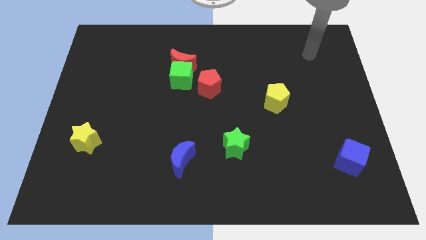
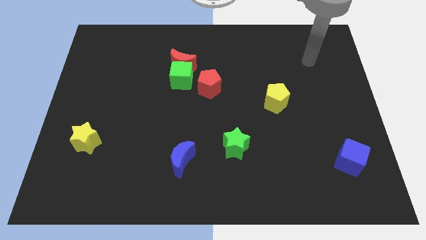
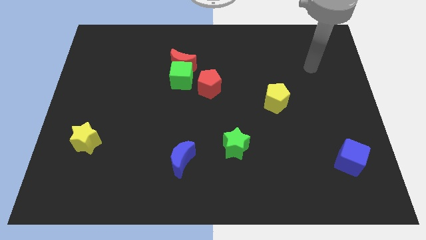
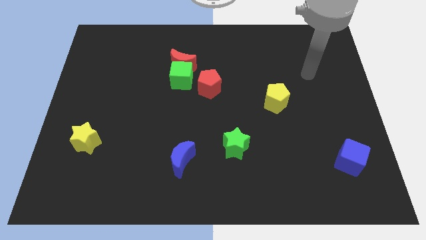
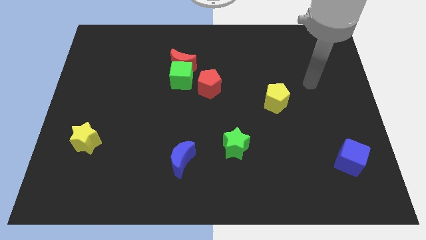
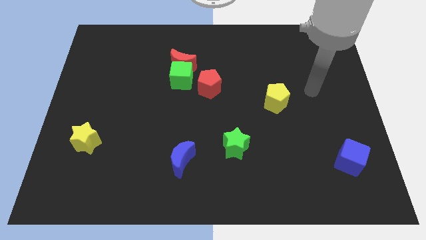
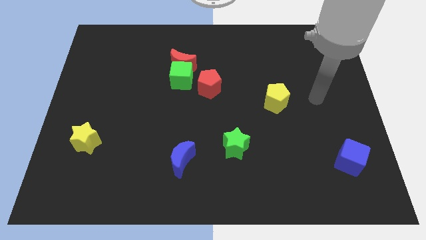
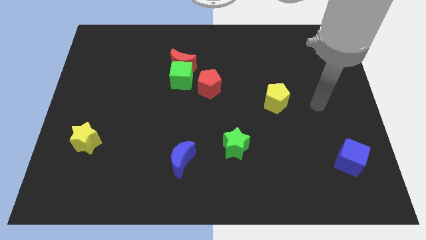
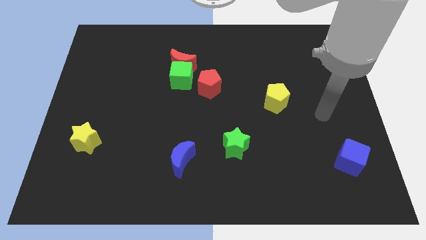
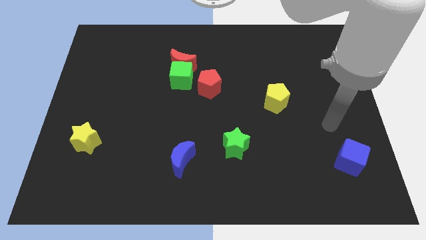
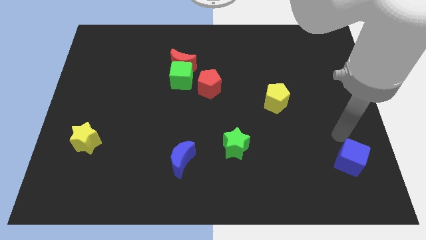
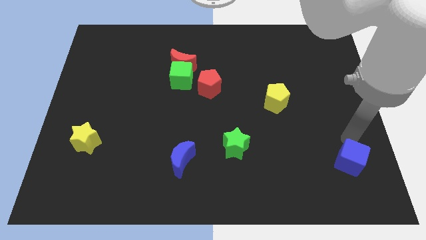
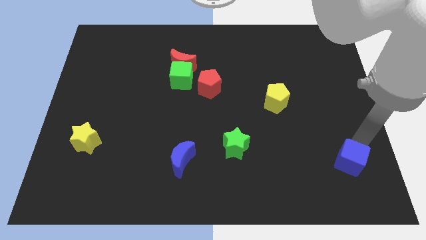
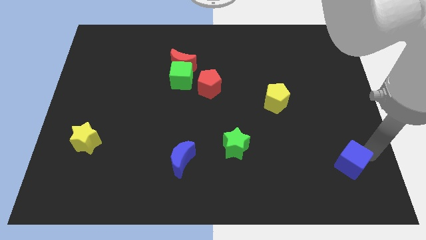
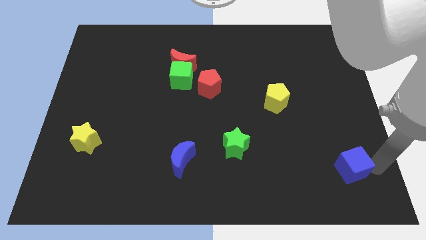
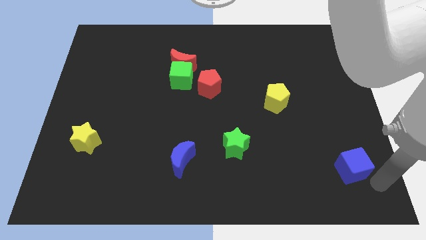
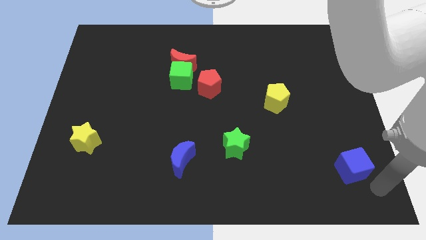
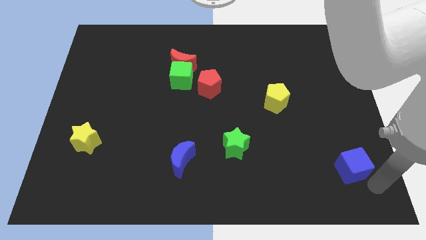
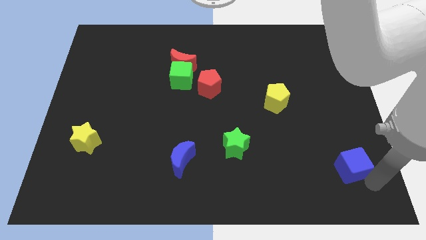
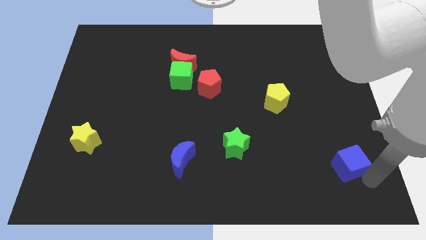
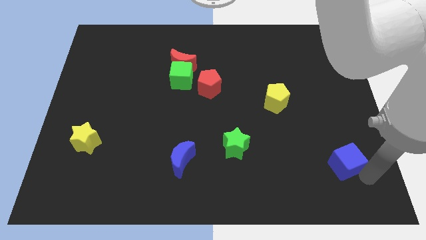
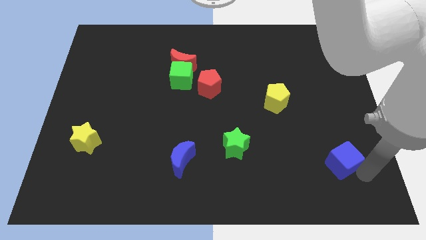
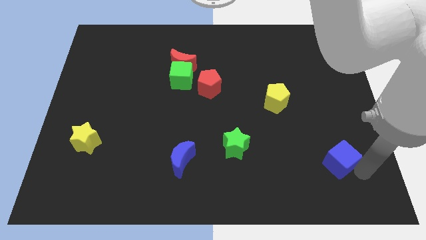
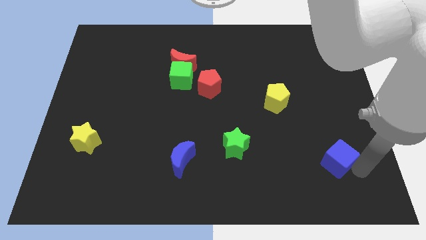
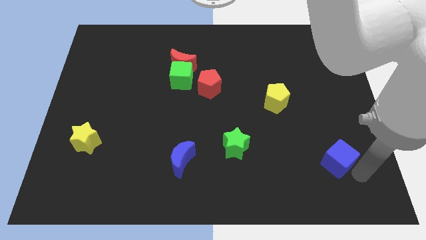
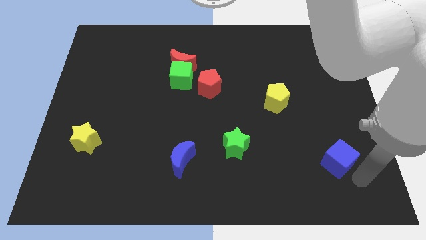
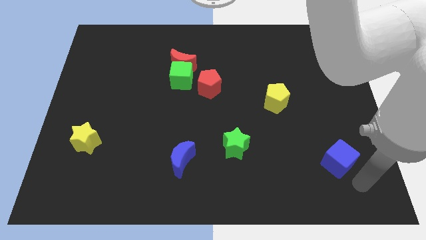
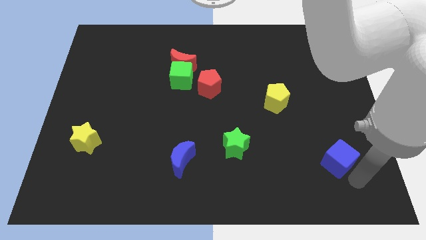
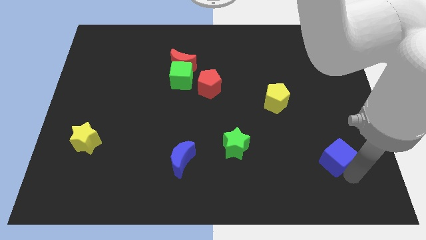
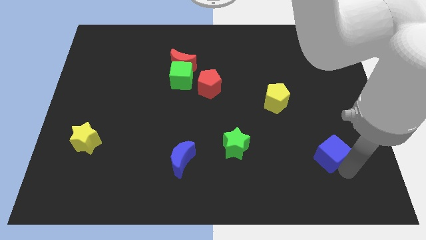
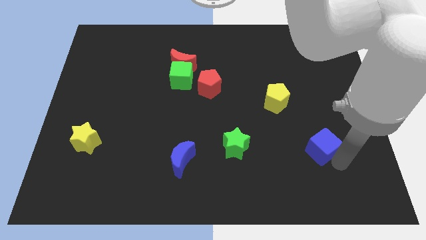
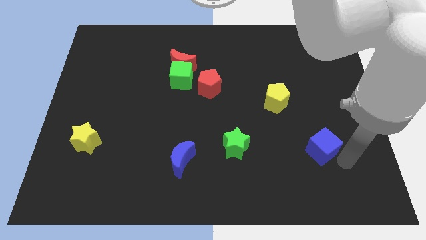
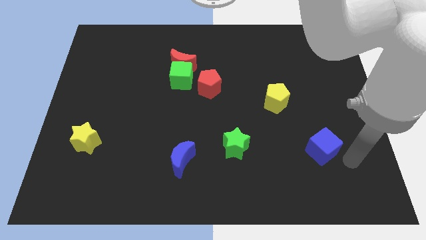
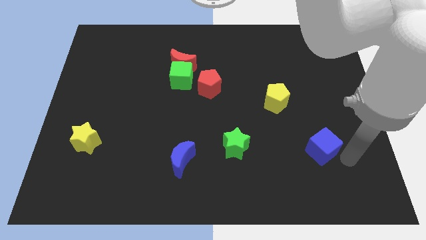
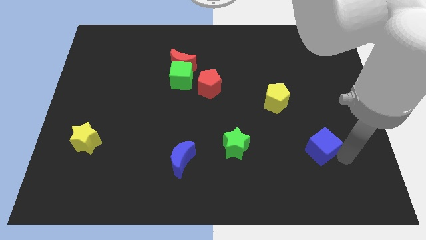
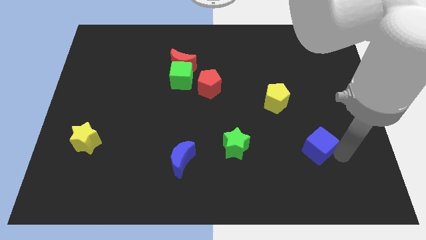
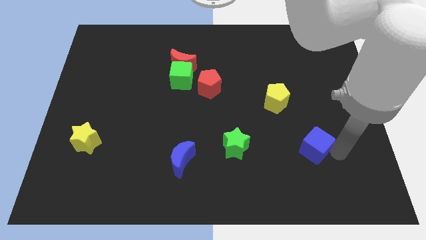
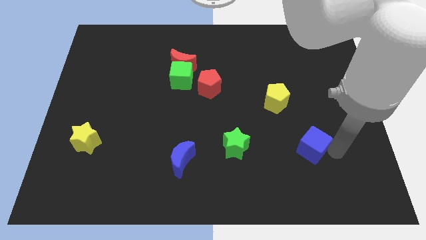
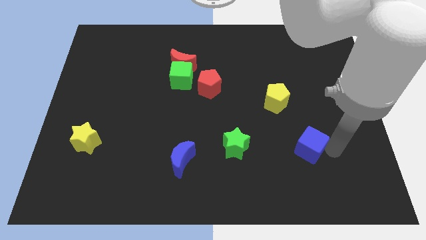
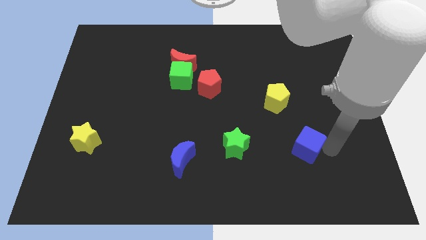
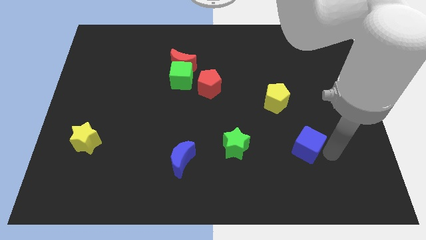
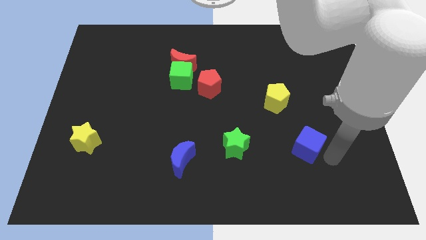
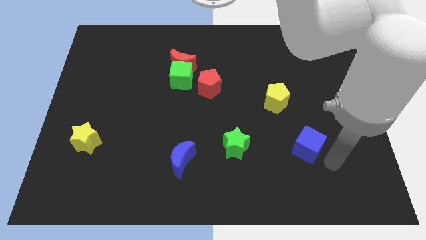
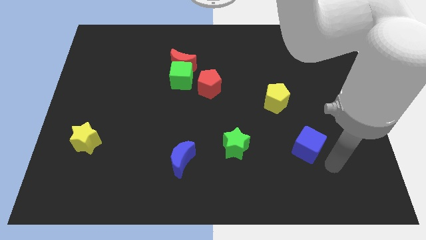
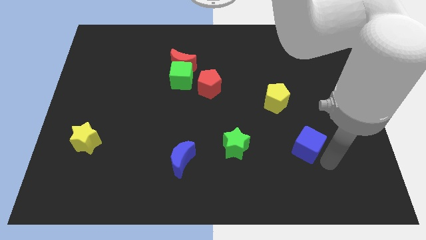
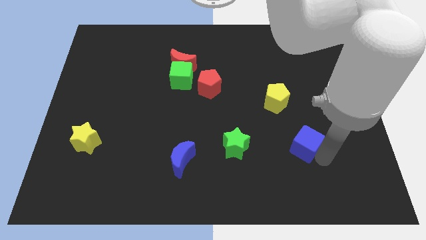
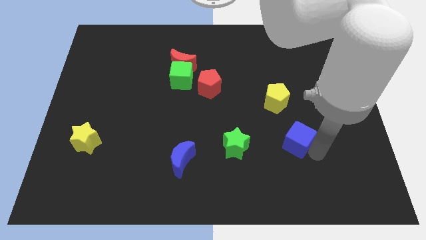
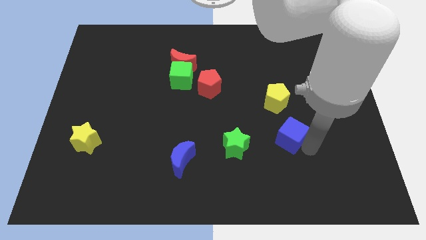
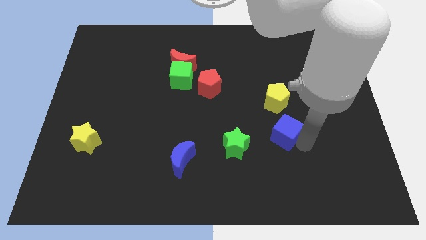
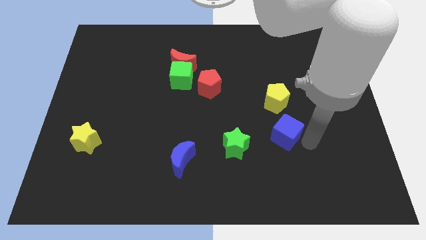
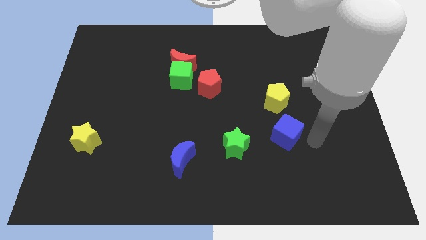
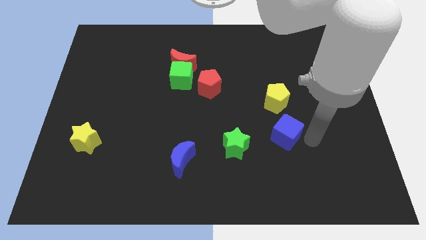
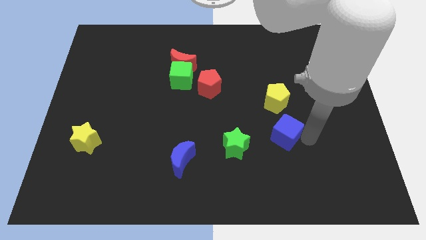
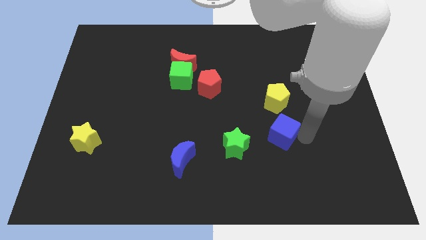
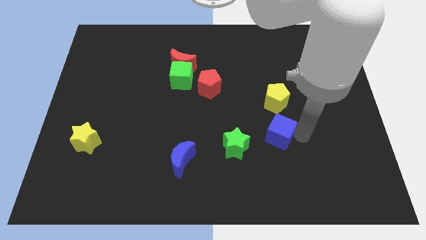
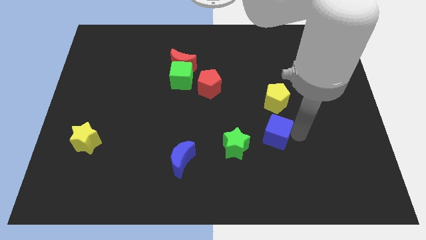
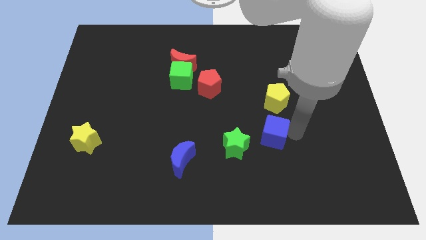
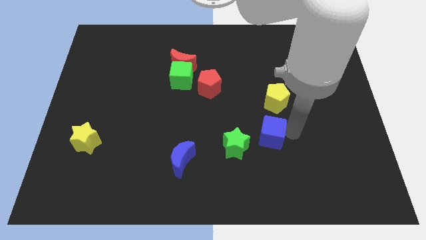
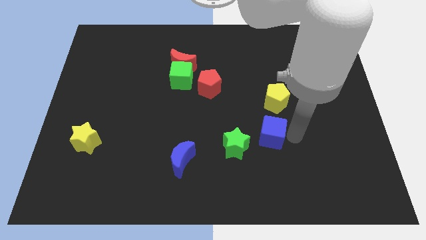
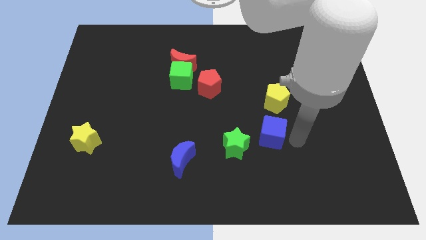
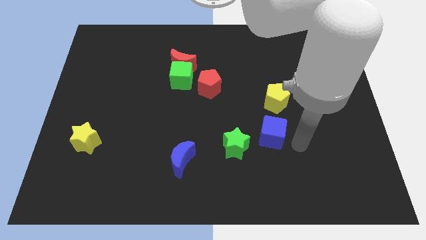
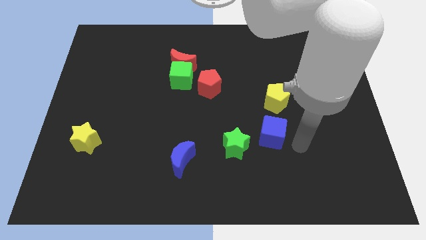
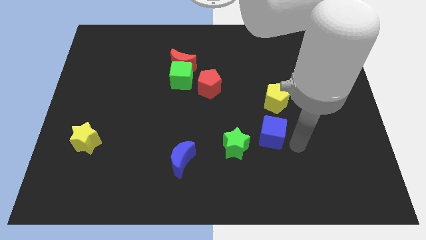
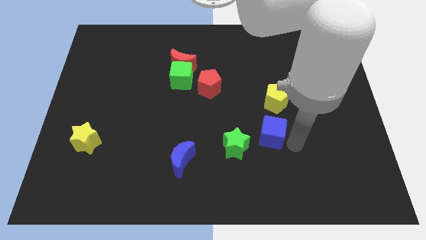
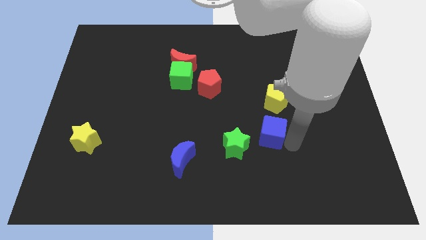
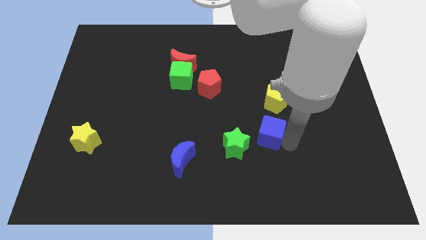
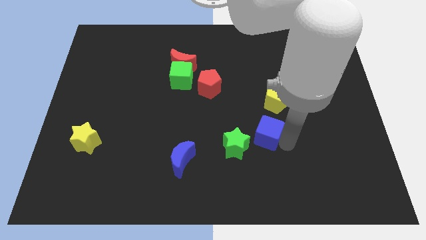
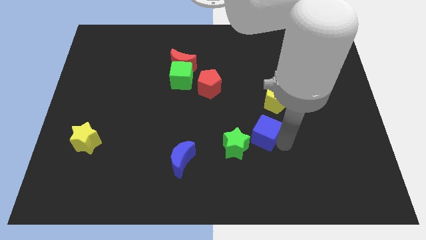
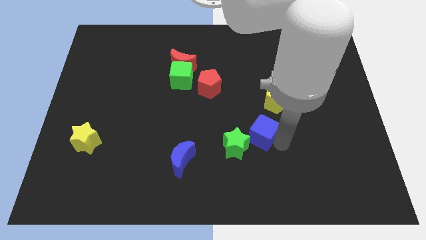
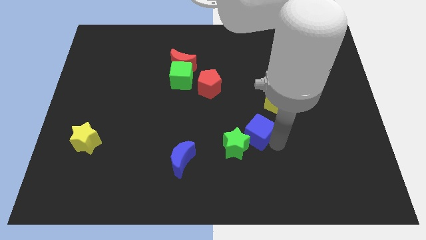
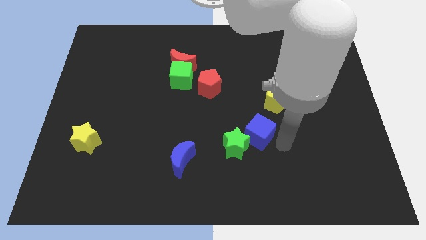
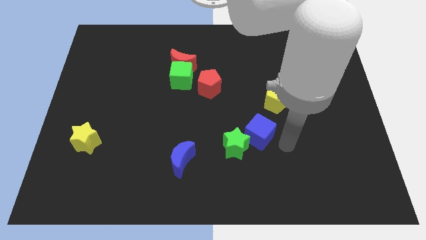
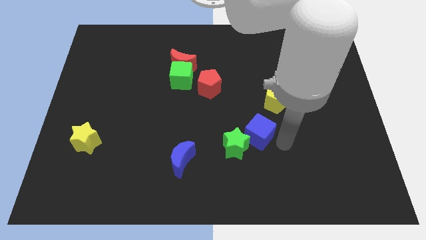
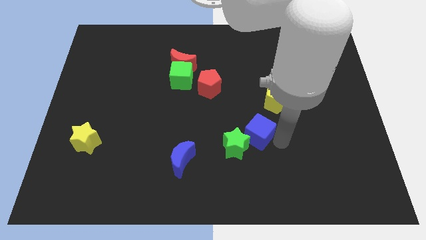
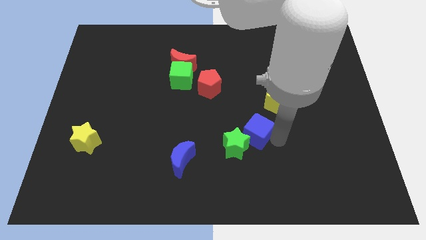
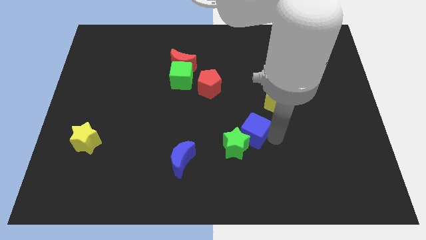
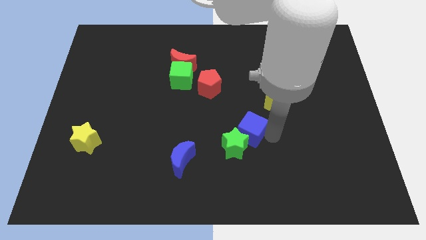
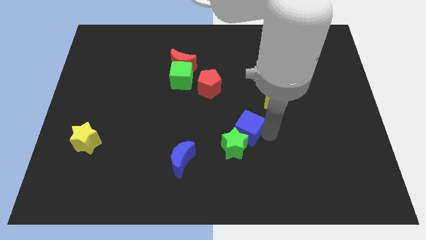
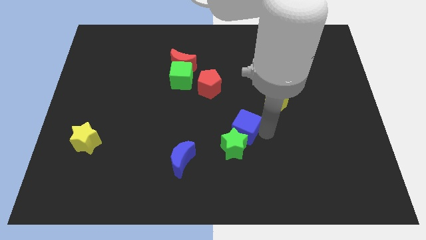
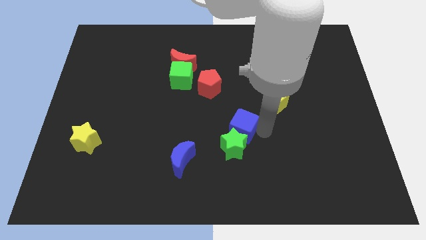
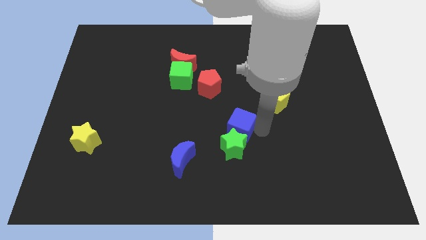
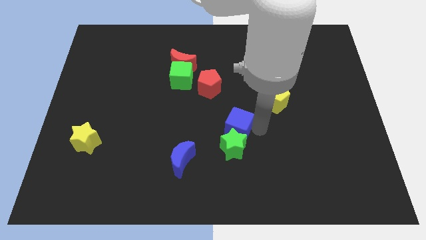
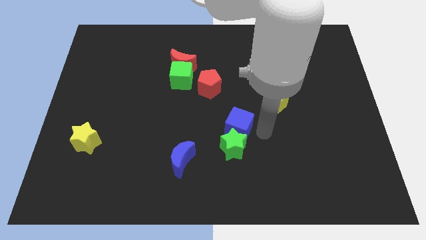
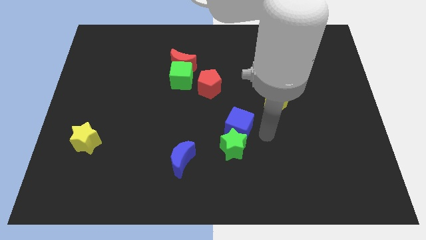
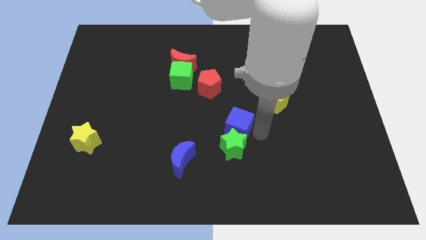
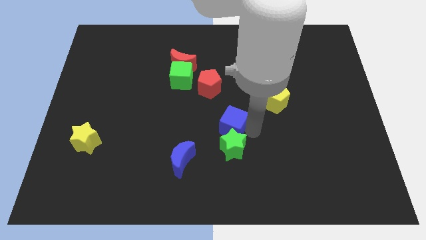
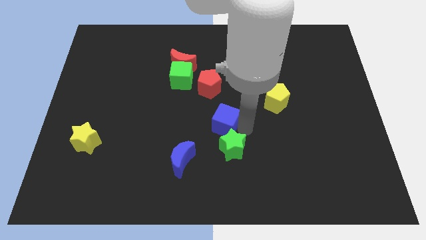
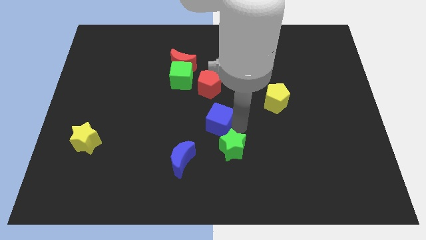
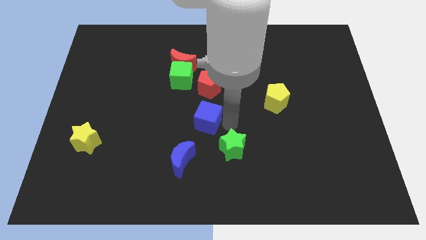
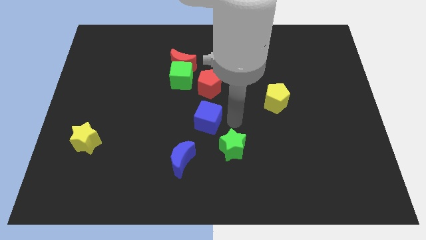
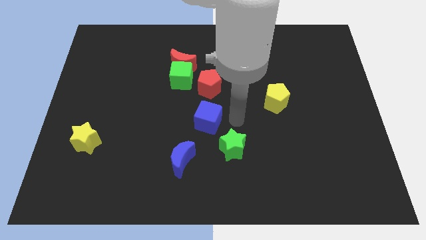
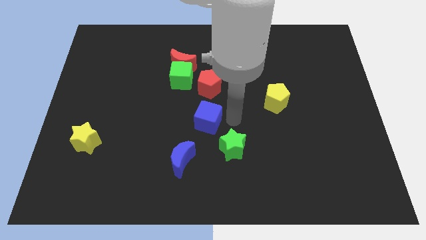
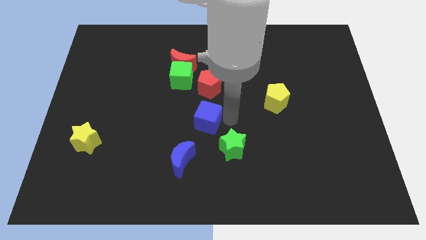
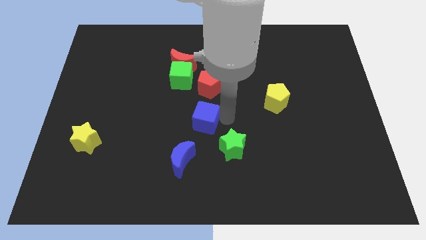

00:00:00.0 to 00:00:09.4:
slide the blue cube to the top of the blue moon
